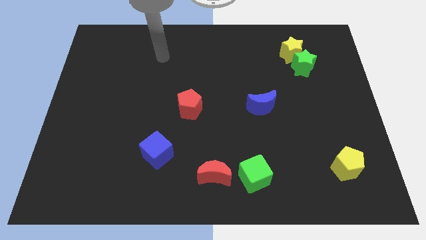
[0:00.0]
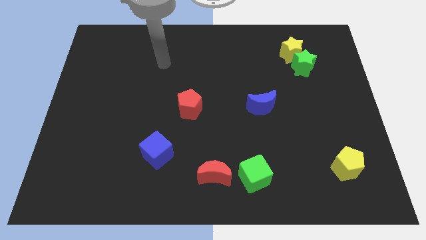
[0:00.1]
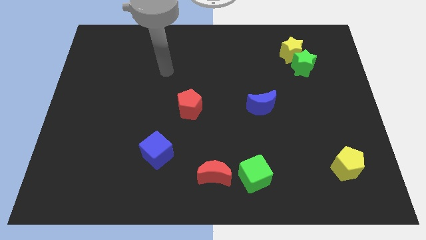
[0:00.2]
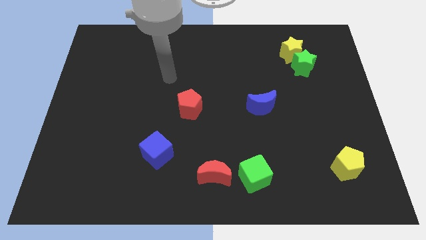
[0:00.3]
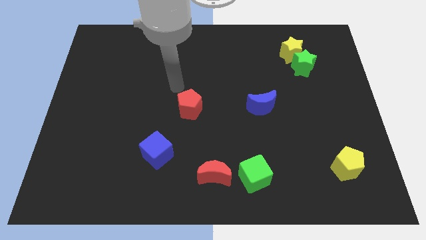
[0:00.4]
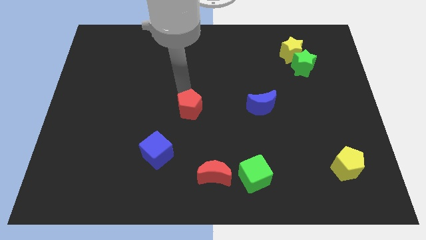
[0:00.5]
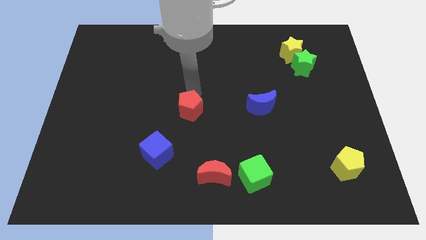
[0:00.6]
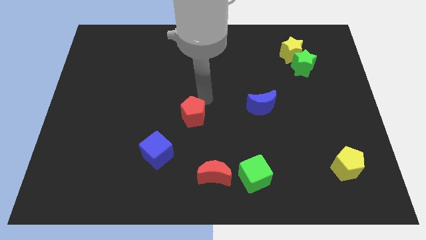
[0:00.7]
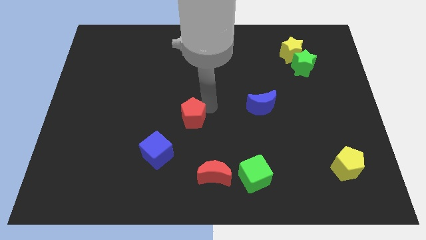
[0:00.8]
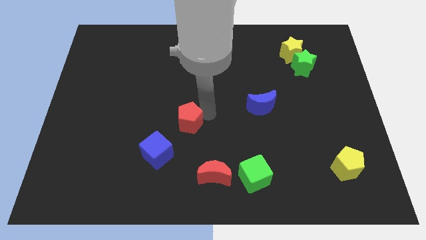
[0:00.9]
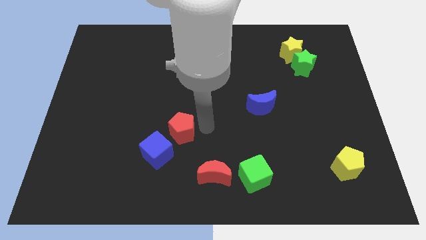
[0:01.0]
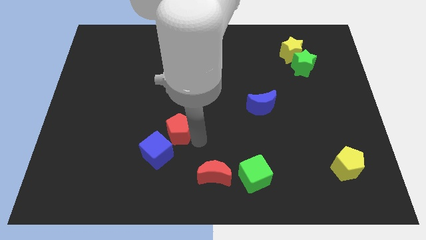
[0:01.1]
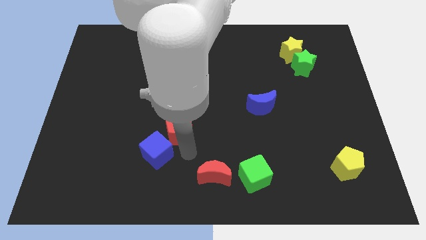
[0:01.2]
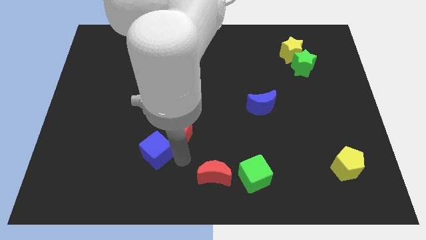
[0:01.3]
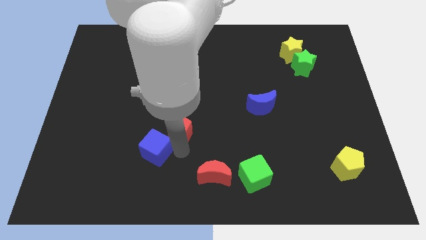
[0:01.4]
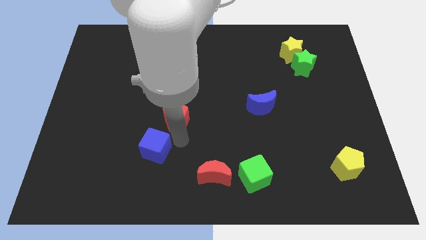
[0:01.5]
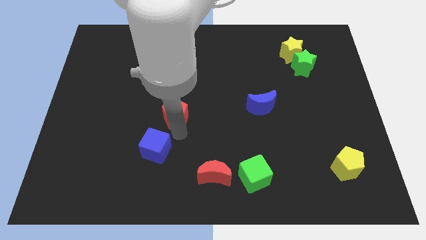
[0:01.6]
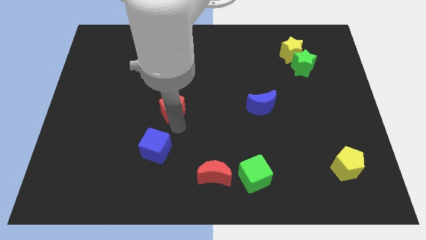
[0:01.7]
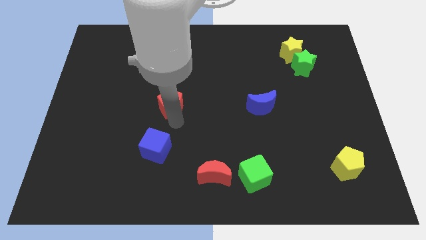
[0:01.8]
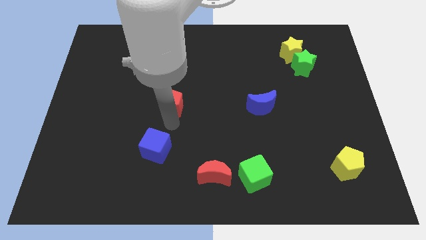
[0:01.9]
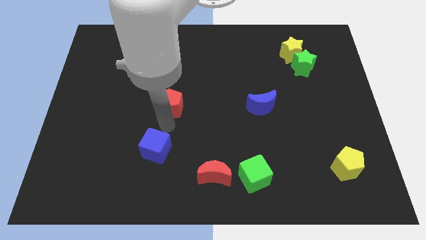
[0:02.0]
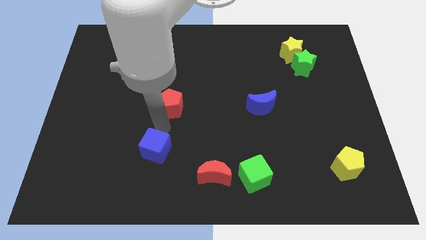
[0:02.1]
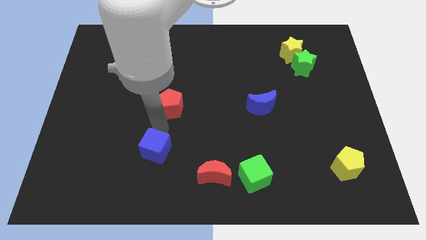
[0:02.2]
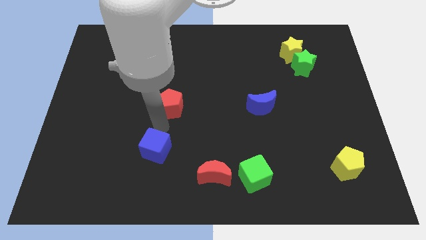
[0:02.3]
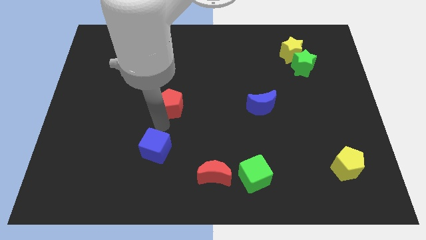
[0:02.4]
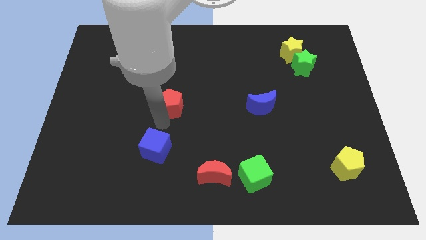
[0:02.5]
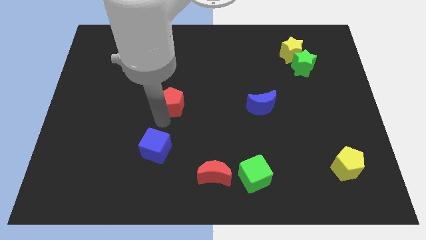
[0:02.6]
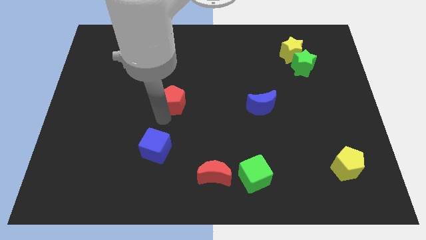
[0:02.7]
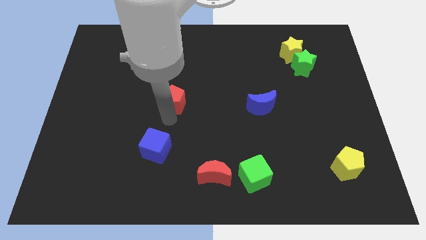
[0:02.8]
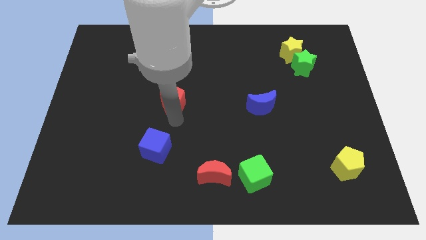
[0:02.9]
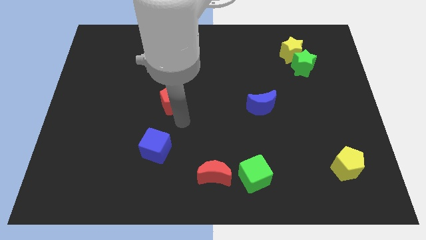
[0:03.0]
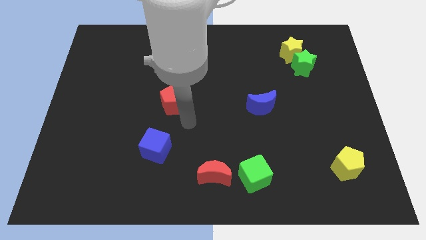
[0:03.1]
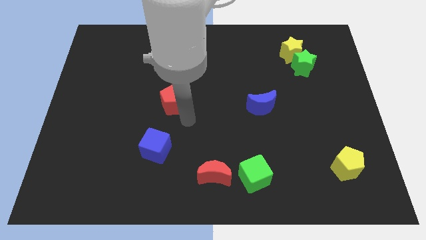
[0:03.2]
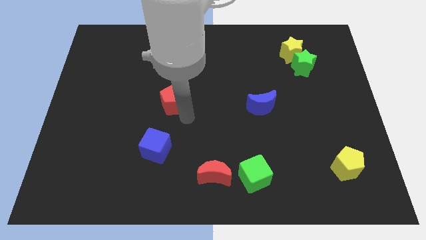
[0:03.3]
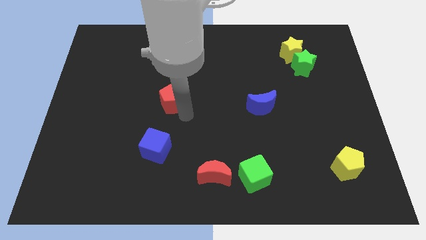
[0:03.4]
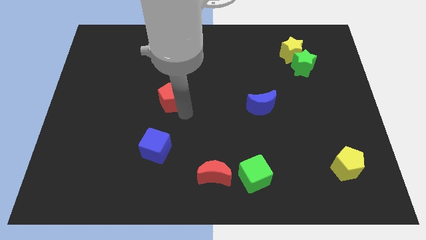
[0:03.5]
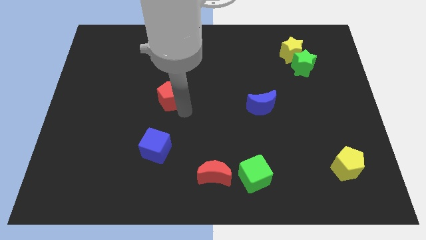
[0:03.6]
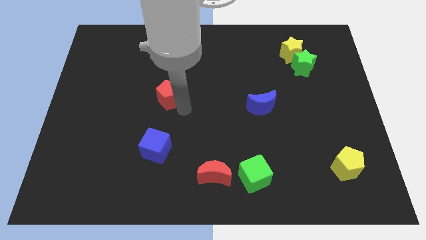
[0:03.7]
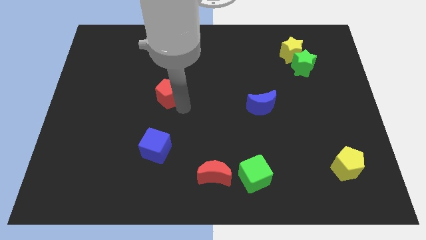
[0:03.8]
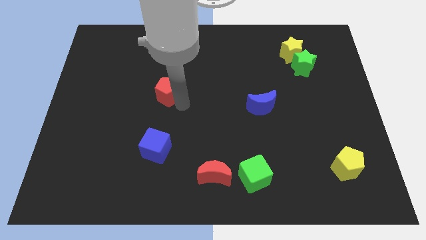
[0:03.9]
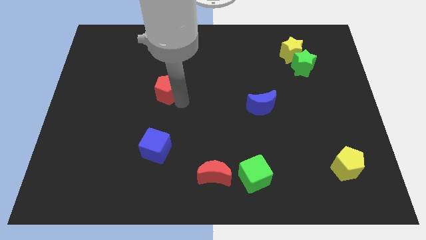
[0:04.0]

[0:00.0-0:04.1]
slightly move the red pentagon upwards and to the left

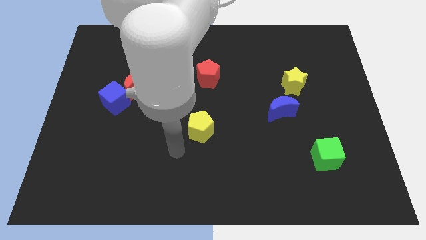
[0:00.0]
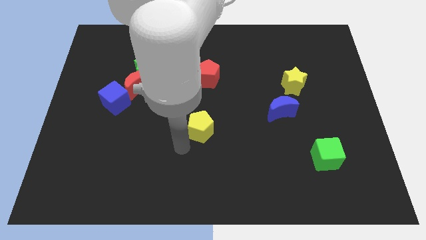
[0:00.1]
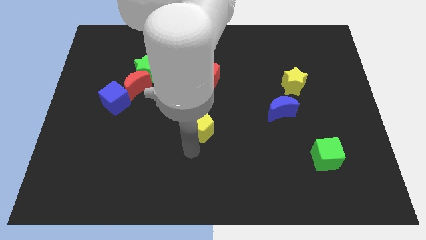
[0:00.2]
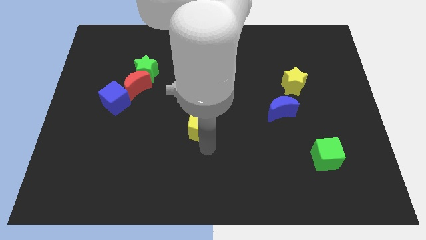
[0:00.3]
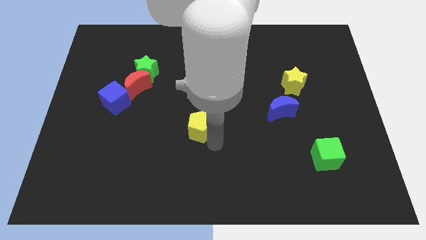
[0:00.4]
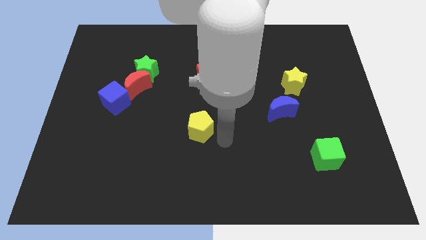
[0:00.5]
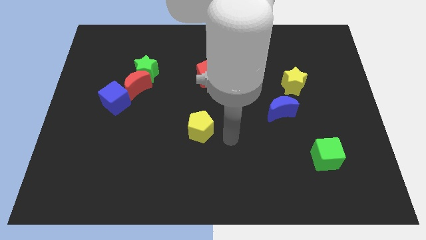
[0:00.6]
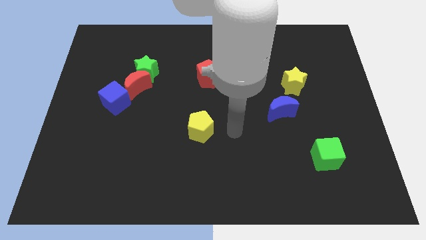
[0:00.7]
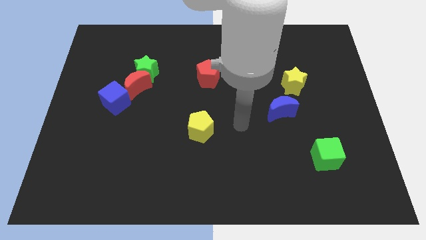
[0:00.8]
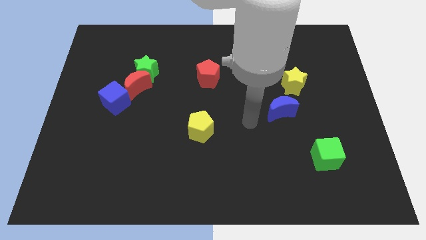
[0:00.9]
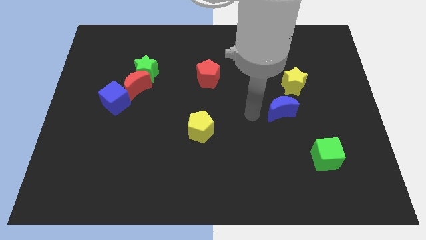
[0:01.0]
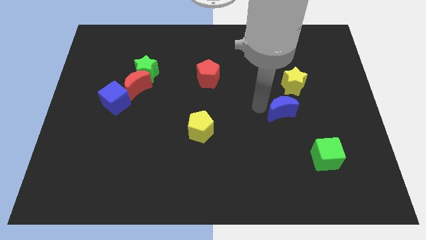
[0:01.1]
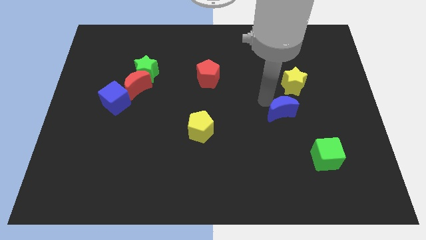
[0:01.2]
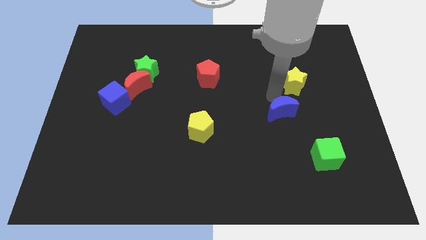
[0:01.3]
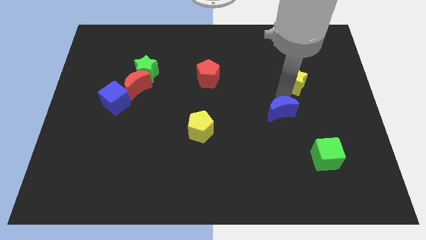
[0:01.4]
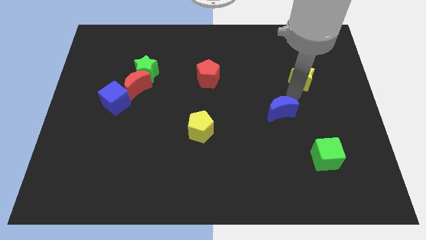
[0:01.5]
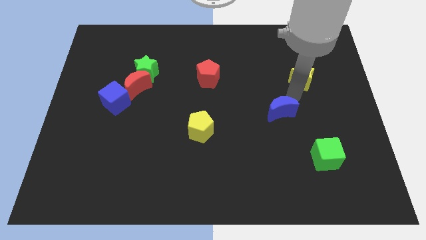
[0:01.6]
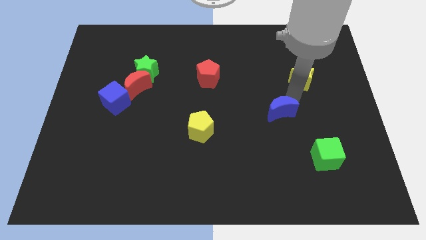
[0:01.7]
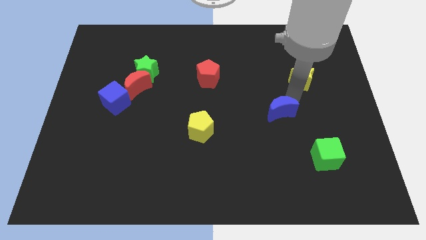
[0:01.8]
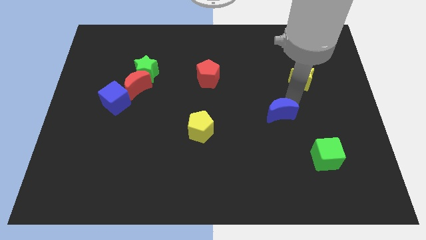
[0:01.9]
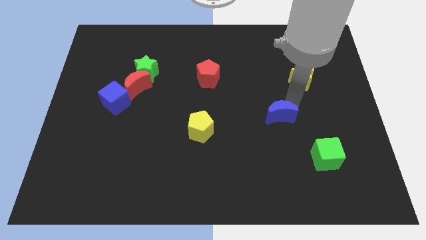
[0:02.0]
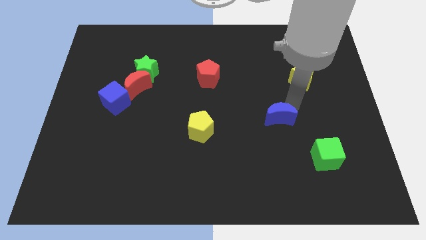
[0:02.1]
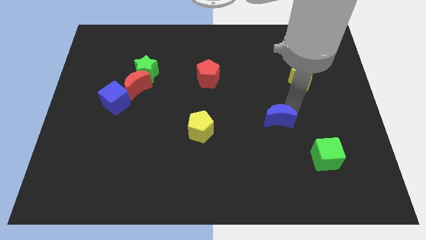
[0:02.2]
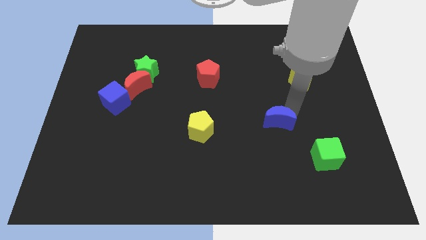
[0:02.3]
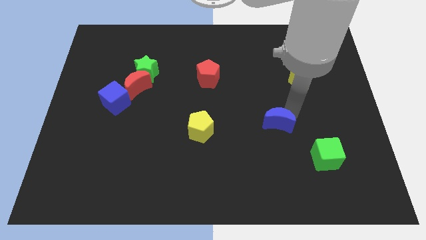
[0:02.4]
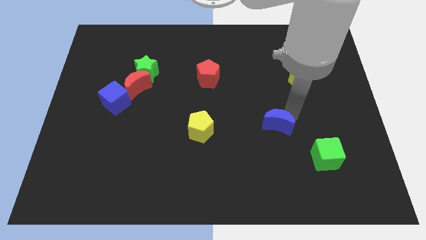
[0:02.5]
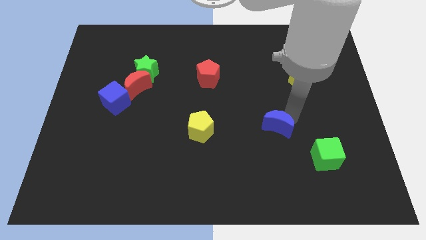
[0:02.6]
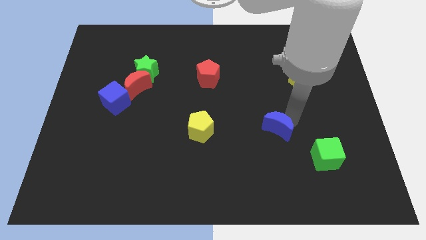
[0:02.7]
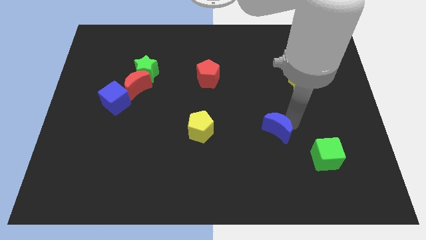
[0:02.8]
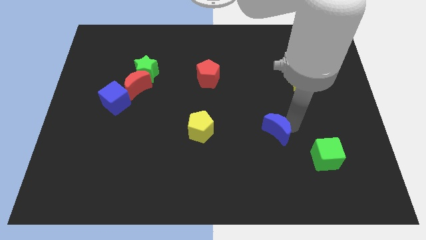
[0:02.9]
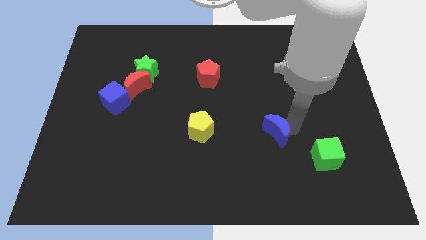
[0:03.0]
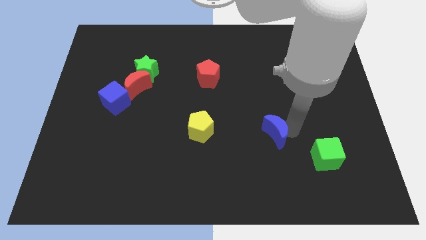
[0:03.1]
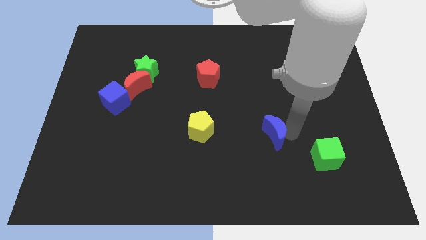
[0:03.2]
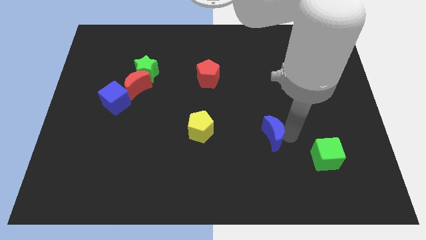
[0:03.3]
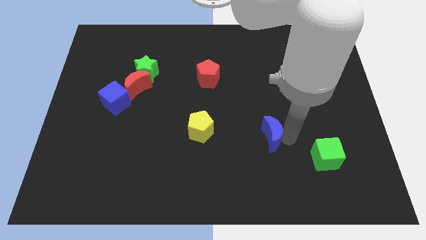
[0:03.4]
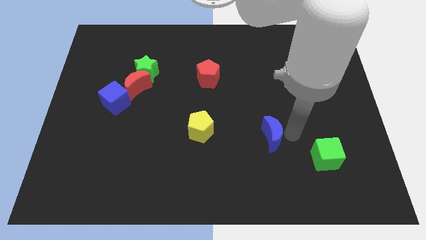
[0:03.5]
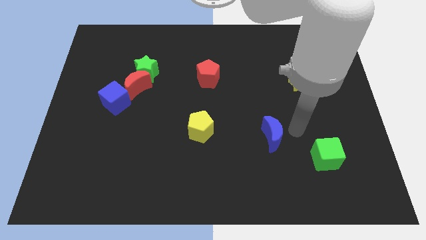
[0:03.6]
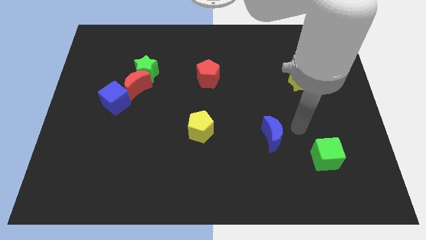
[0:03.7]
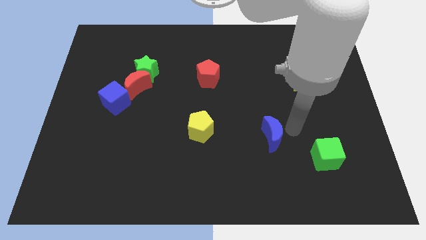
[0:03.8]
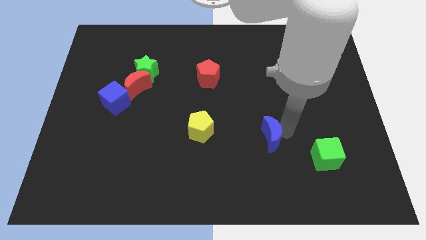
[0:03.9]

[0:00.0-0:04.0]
move the blue moon diagonally downwards and left a little bit

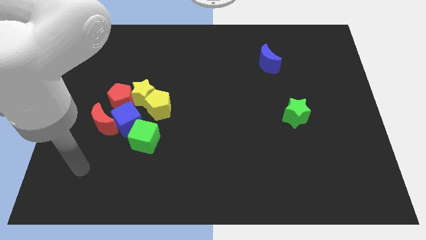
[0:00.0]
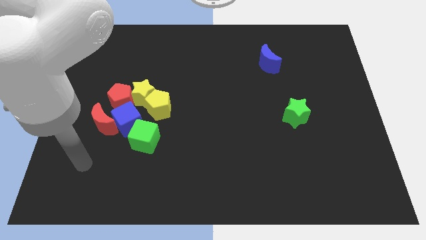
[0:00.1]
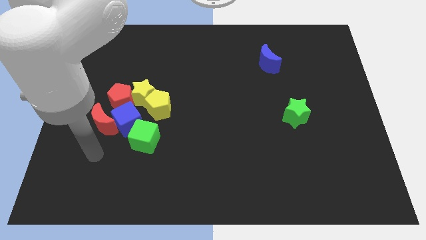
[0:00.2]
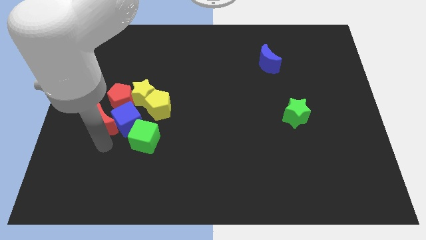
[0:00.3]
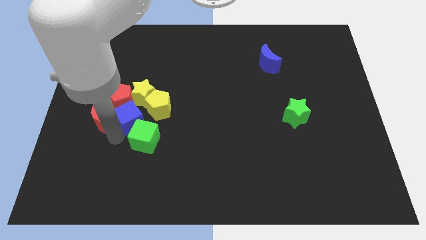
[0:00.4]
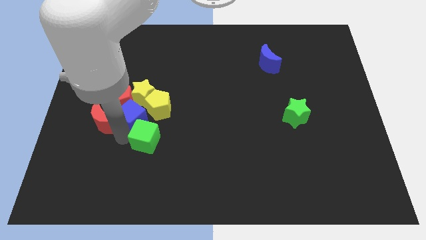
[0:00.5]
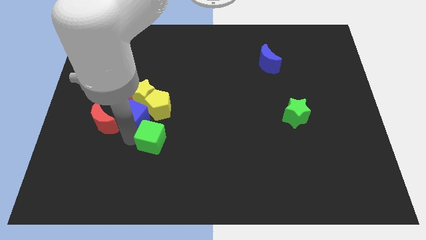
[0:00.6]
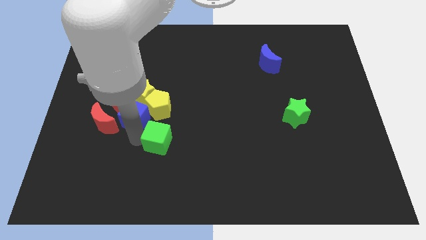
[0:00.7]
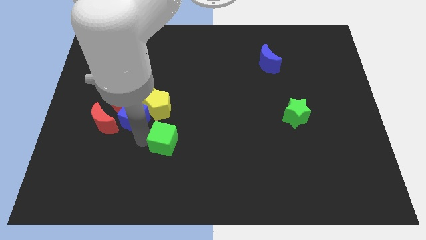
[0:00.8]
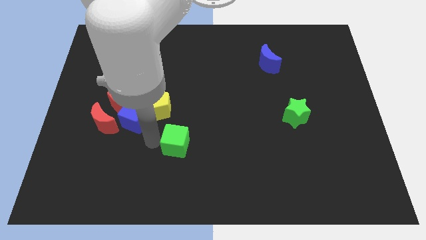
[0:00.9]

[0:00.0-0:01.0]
slide the green cube right somewhat
